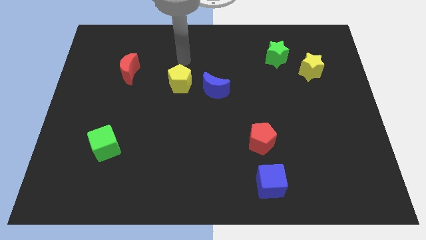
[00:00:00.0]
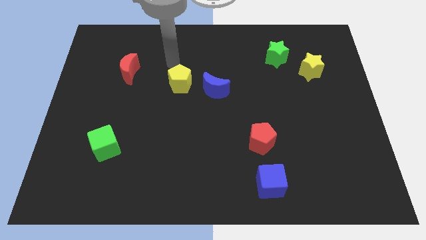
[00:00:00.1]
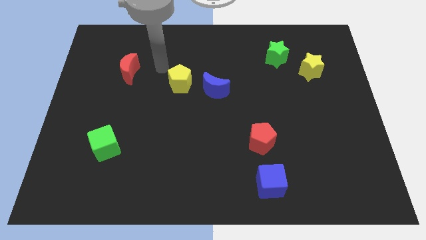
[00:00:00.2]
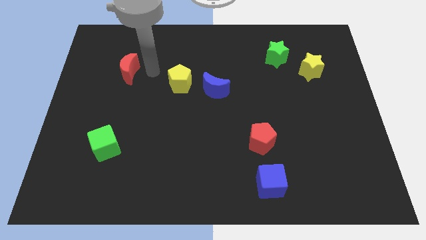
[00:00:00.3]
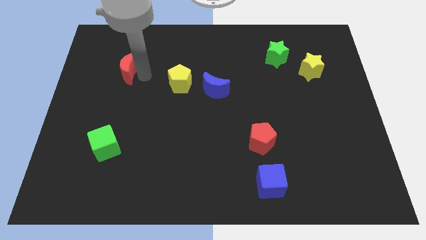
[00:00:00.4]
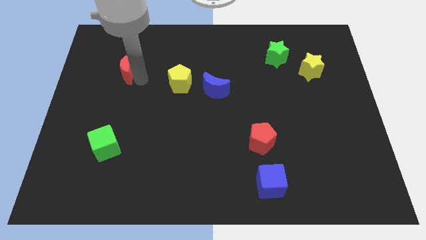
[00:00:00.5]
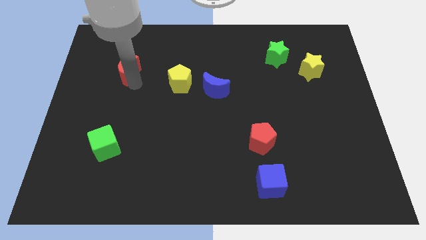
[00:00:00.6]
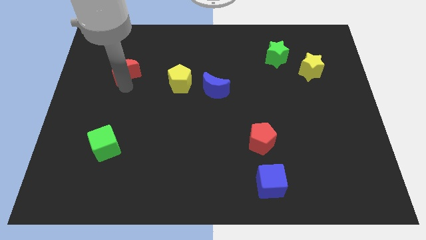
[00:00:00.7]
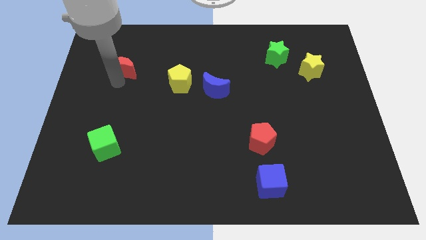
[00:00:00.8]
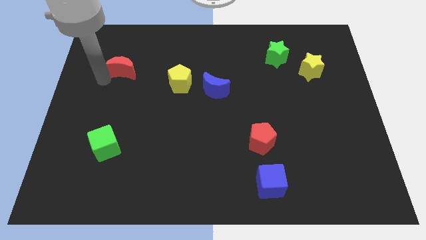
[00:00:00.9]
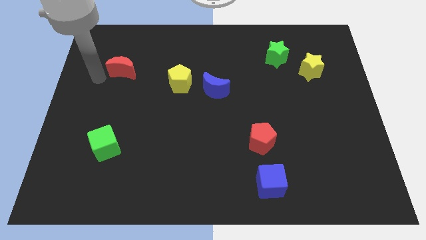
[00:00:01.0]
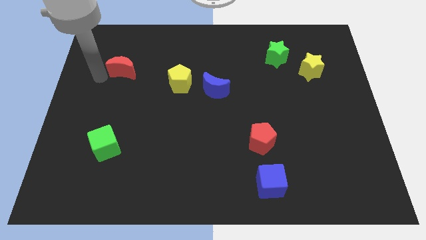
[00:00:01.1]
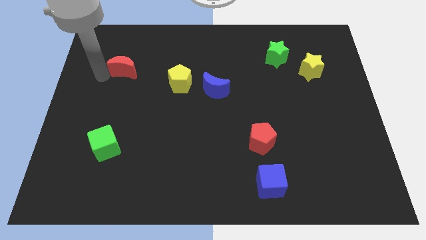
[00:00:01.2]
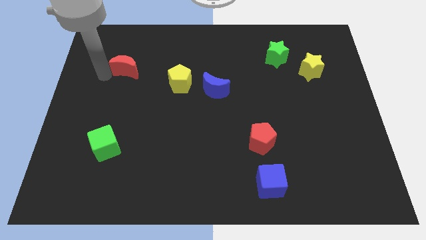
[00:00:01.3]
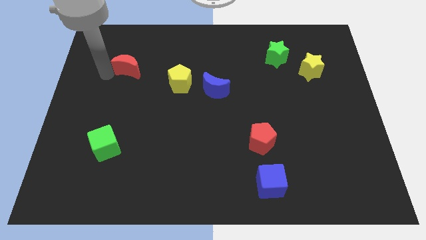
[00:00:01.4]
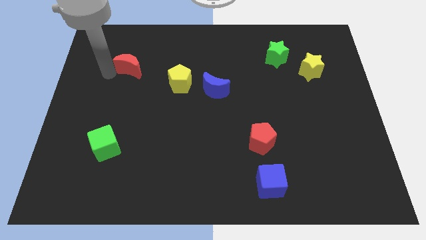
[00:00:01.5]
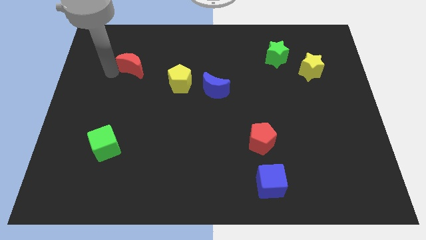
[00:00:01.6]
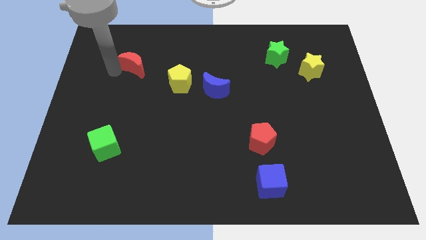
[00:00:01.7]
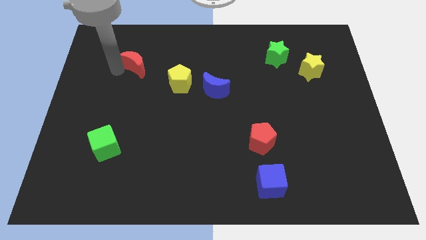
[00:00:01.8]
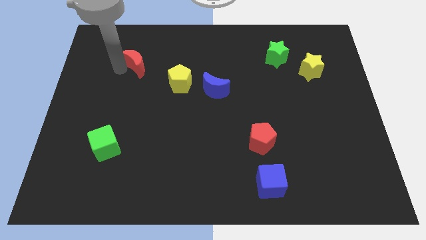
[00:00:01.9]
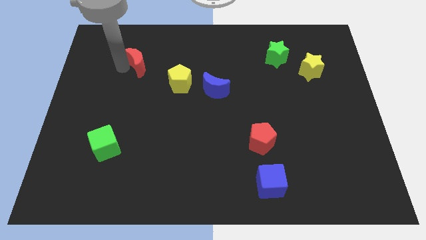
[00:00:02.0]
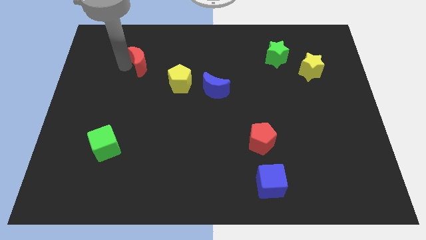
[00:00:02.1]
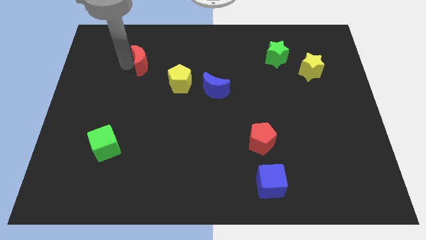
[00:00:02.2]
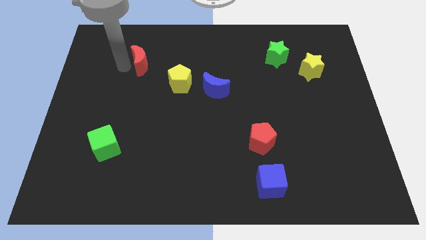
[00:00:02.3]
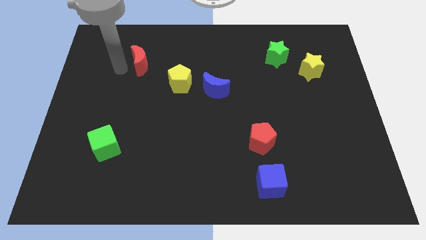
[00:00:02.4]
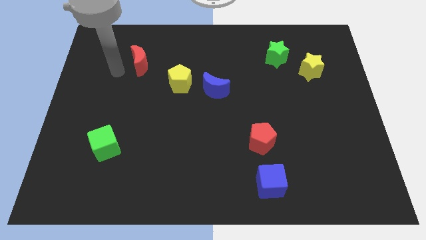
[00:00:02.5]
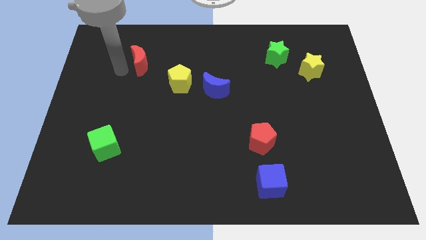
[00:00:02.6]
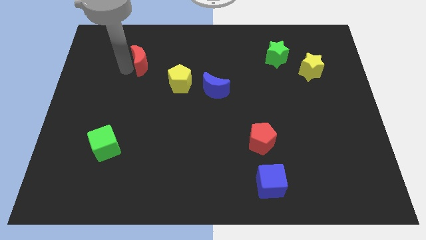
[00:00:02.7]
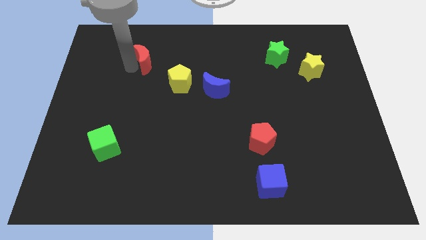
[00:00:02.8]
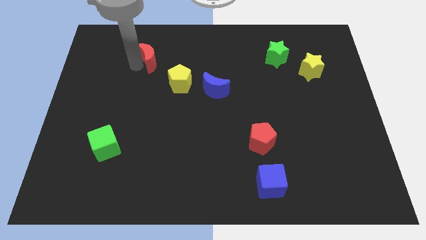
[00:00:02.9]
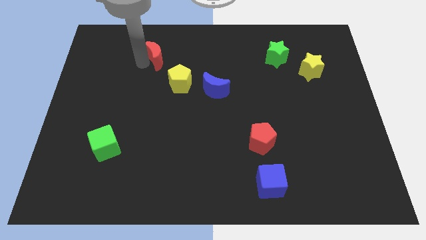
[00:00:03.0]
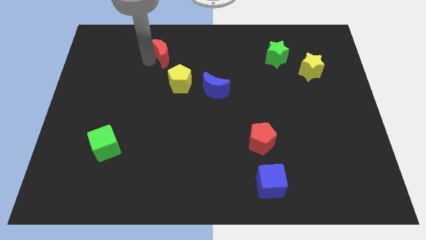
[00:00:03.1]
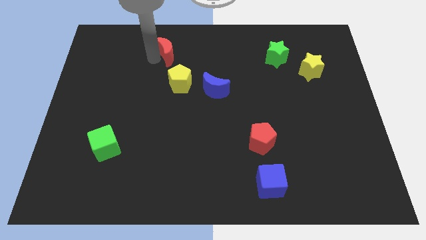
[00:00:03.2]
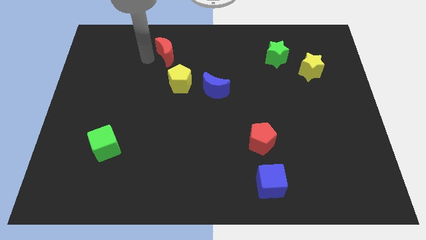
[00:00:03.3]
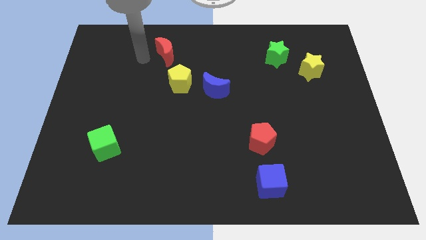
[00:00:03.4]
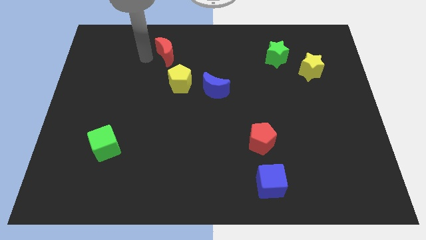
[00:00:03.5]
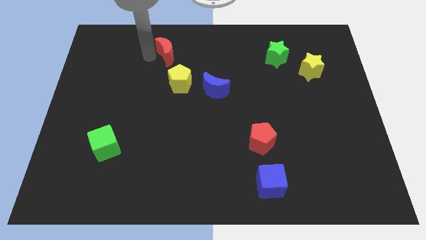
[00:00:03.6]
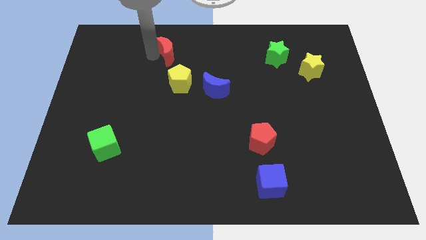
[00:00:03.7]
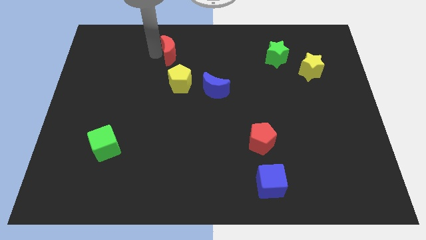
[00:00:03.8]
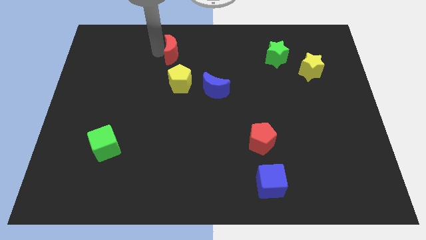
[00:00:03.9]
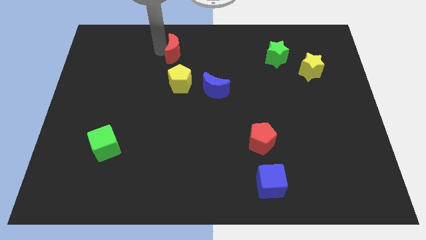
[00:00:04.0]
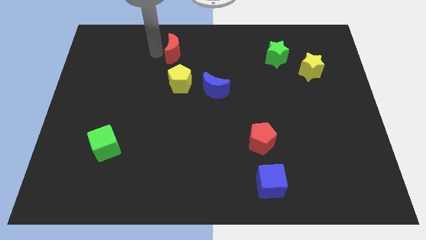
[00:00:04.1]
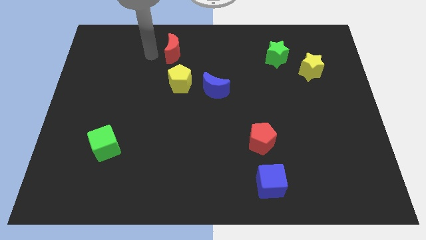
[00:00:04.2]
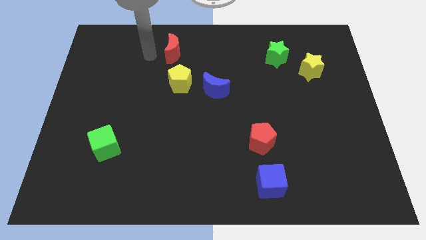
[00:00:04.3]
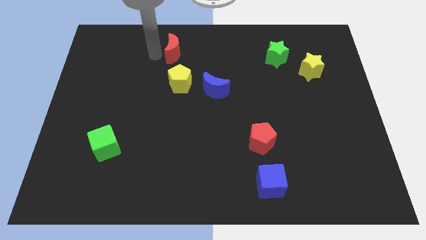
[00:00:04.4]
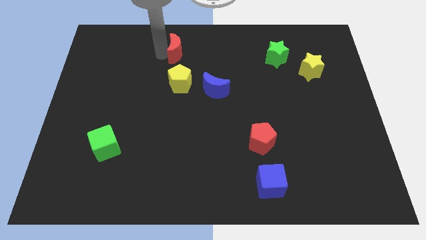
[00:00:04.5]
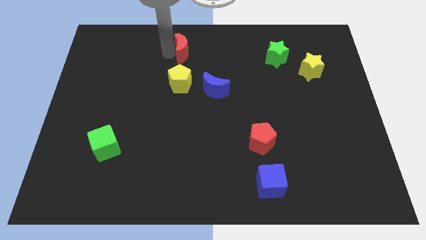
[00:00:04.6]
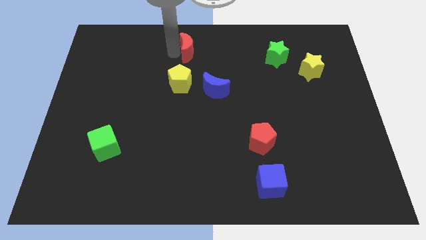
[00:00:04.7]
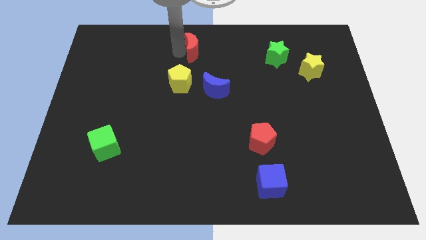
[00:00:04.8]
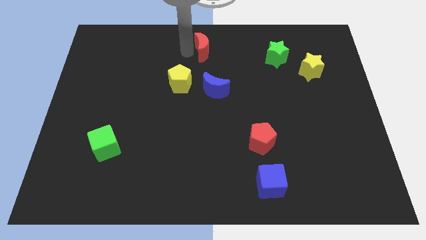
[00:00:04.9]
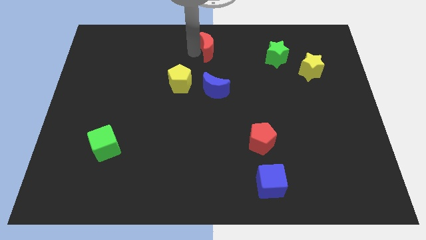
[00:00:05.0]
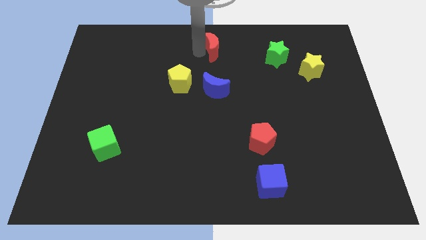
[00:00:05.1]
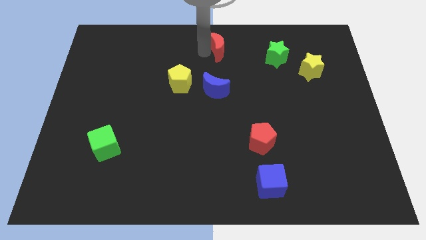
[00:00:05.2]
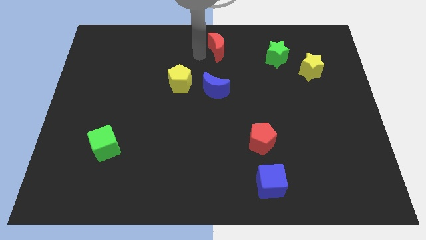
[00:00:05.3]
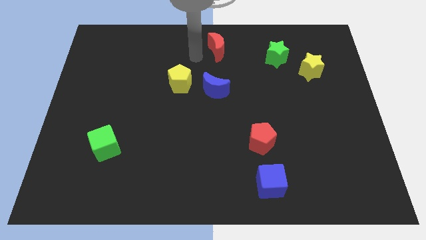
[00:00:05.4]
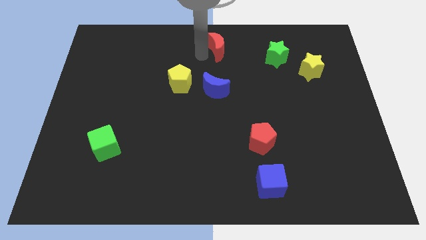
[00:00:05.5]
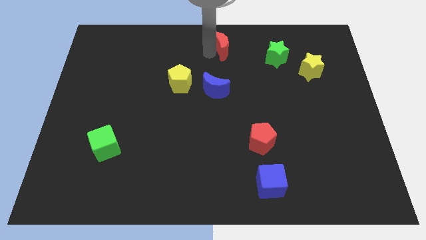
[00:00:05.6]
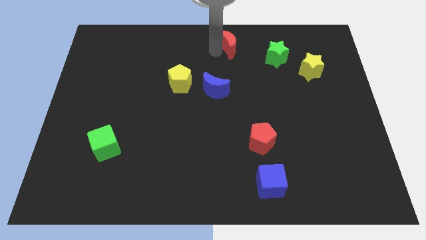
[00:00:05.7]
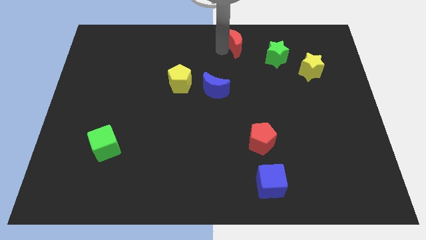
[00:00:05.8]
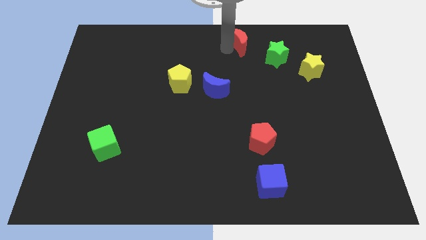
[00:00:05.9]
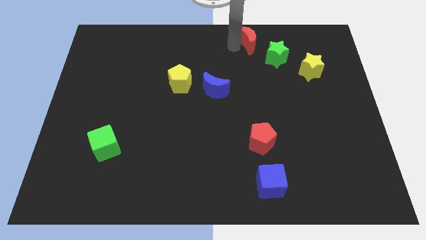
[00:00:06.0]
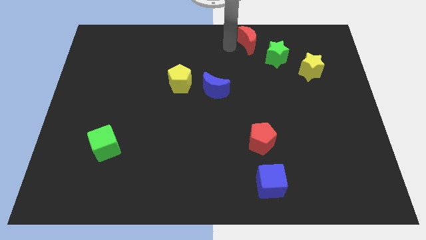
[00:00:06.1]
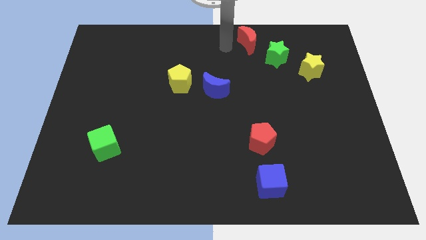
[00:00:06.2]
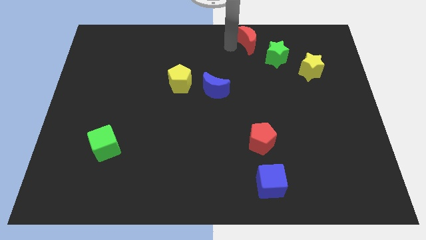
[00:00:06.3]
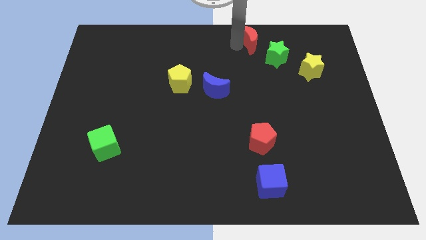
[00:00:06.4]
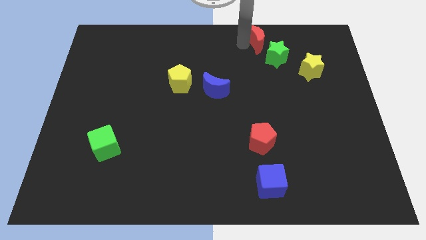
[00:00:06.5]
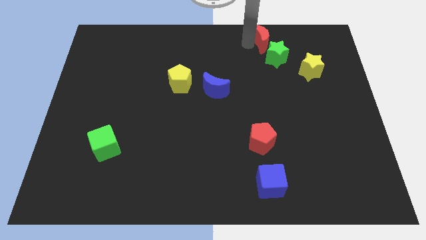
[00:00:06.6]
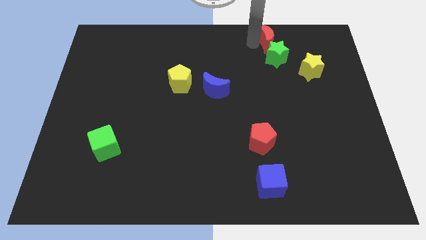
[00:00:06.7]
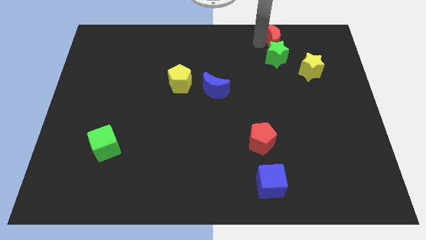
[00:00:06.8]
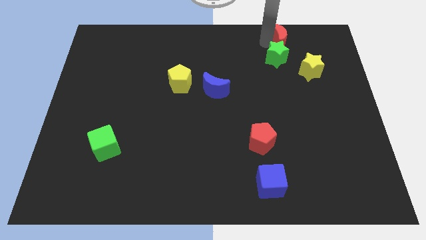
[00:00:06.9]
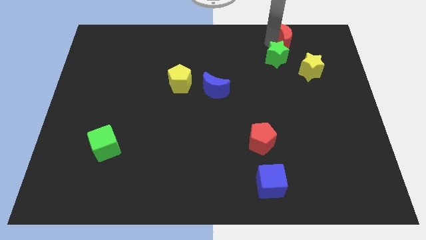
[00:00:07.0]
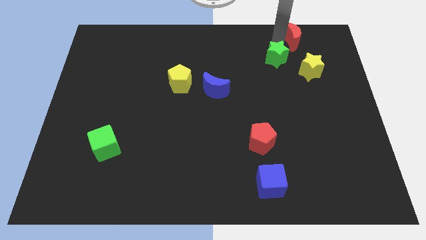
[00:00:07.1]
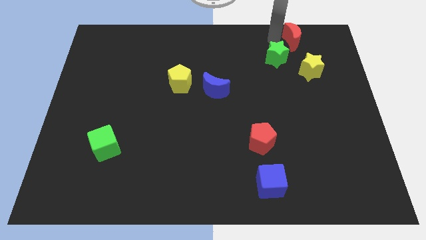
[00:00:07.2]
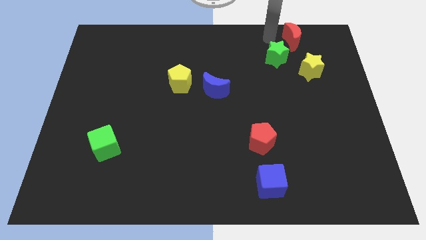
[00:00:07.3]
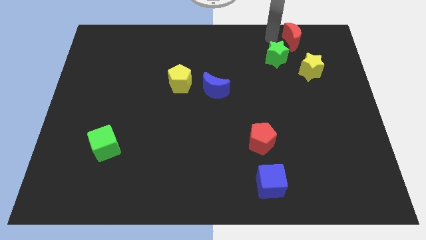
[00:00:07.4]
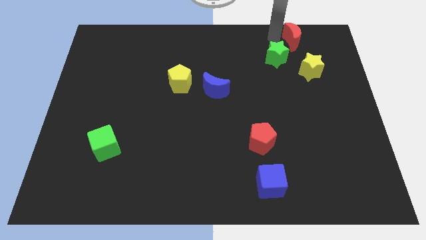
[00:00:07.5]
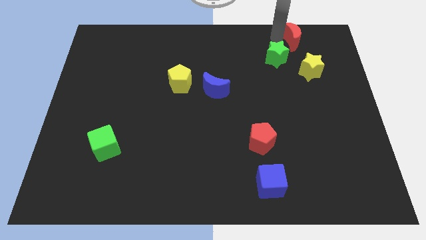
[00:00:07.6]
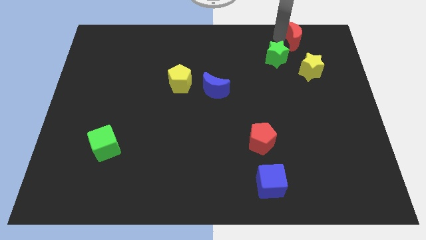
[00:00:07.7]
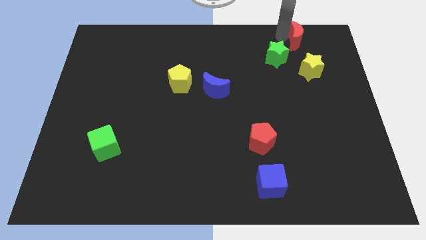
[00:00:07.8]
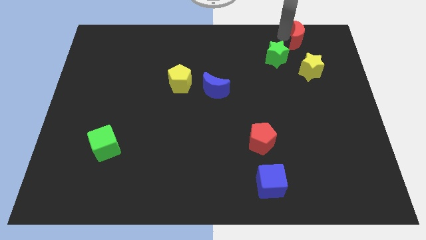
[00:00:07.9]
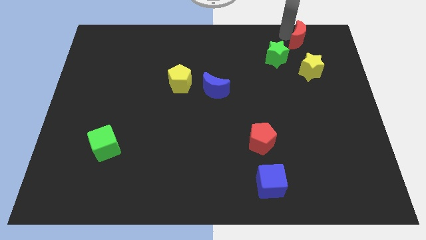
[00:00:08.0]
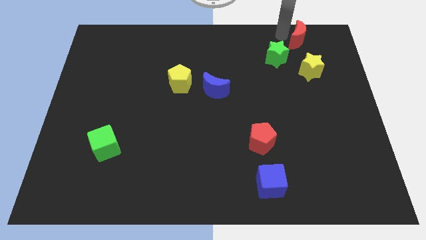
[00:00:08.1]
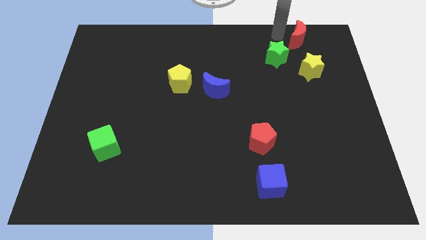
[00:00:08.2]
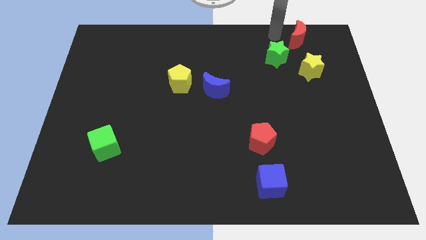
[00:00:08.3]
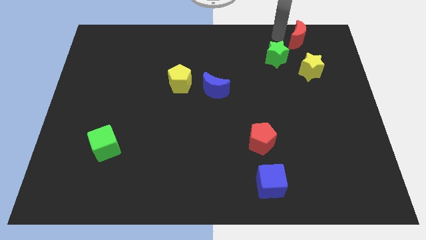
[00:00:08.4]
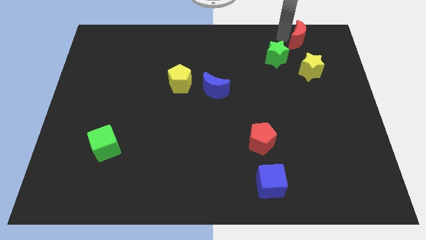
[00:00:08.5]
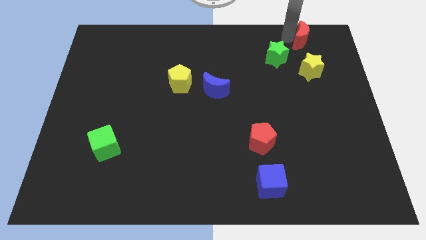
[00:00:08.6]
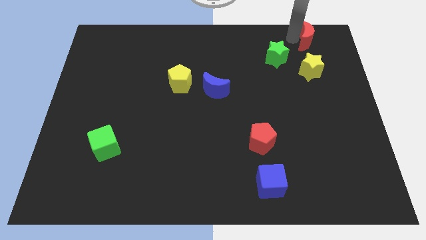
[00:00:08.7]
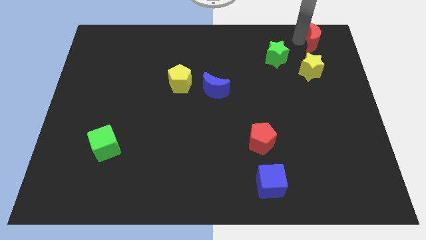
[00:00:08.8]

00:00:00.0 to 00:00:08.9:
put the red moon to the top right of the board
